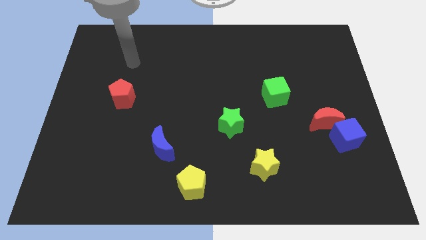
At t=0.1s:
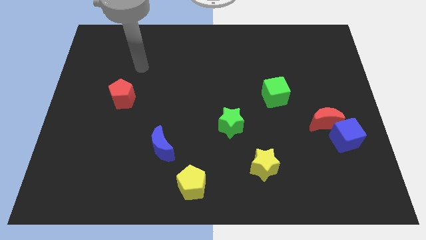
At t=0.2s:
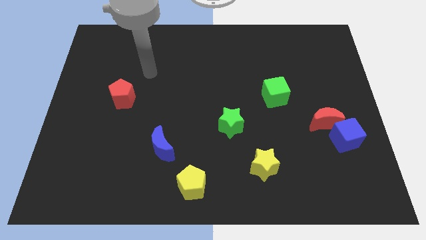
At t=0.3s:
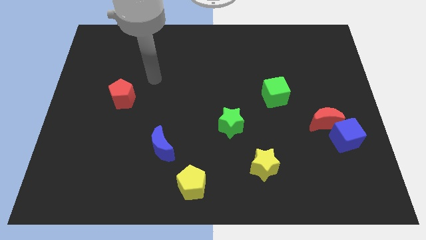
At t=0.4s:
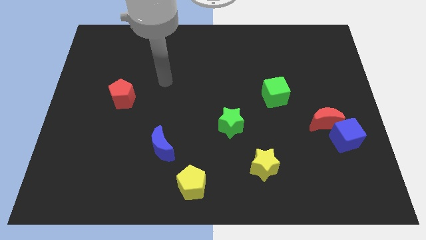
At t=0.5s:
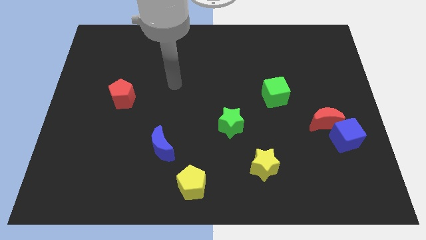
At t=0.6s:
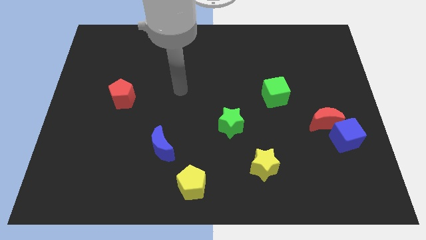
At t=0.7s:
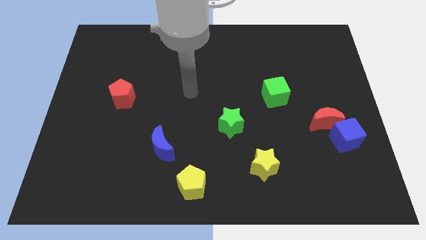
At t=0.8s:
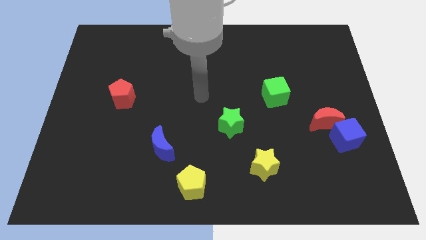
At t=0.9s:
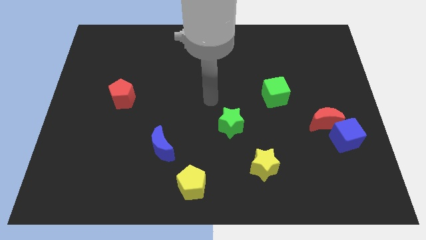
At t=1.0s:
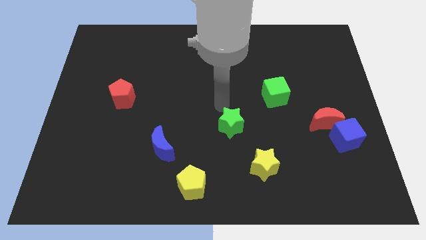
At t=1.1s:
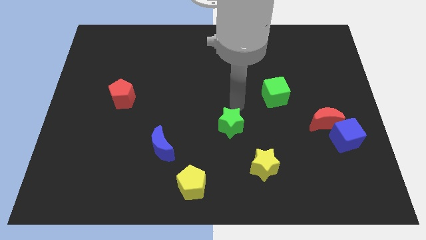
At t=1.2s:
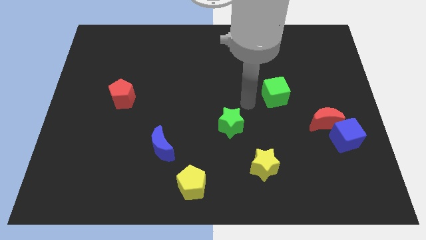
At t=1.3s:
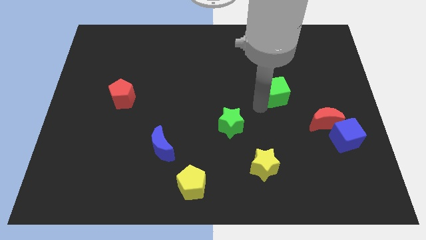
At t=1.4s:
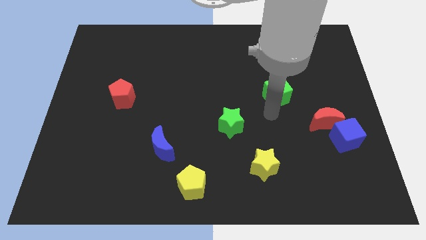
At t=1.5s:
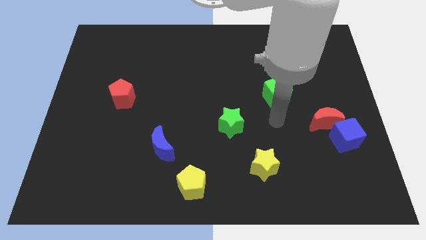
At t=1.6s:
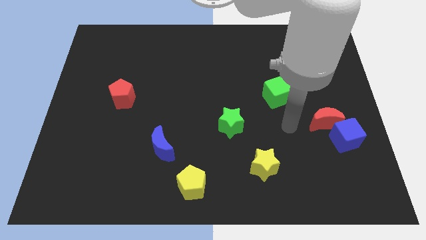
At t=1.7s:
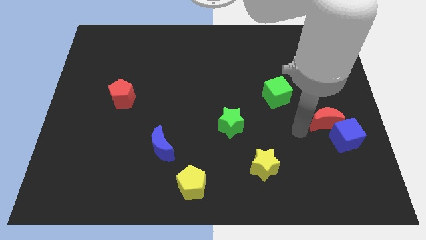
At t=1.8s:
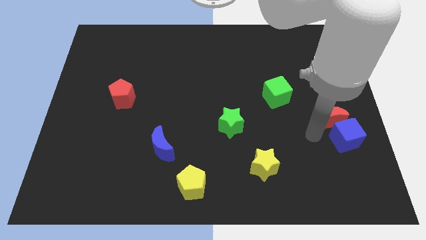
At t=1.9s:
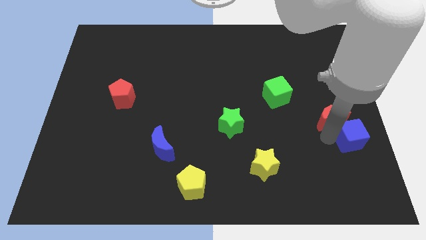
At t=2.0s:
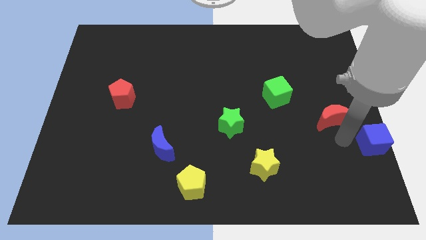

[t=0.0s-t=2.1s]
move the red moon away from the blue cube

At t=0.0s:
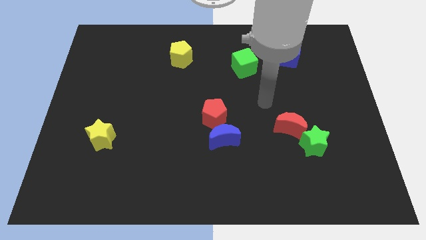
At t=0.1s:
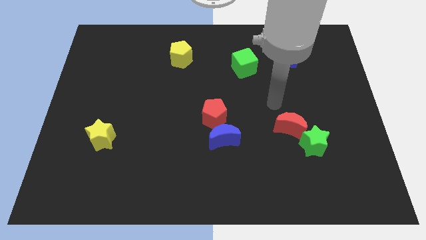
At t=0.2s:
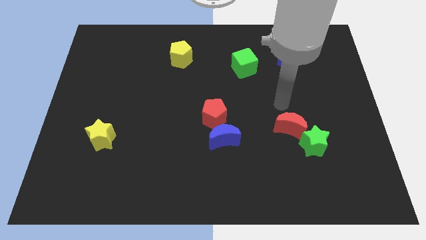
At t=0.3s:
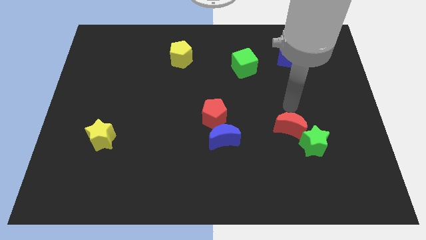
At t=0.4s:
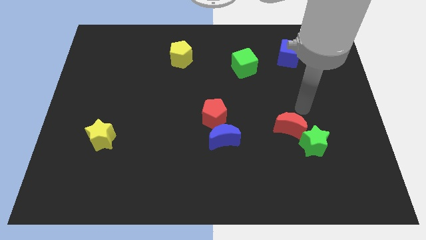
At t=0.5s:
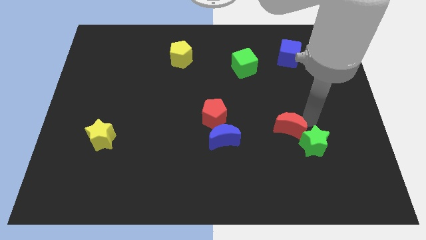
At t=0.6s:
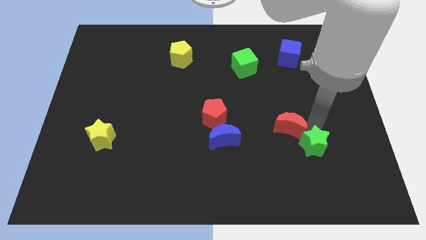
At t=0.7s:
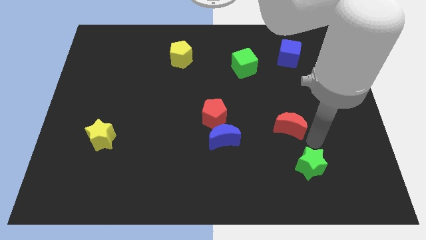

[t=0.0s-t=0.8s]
move the red moon away from the green star

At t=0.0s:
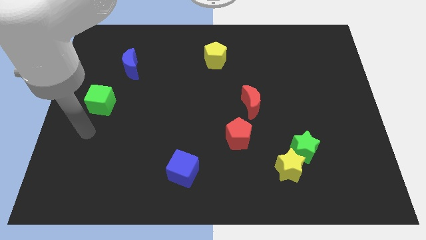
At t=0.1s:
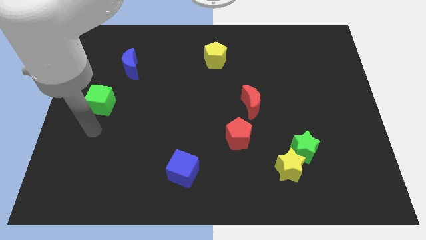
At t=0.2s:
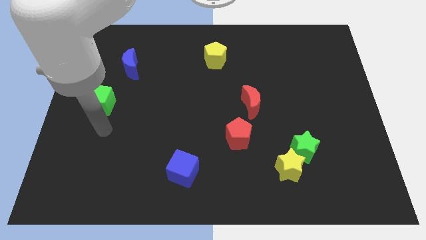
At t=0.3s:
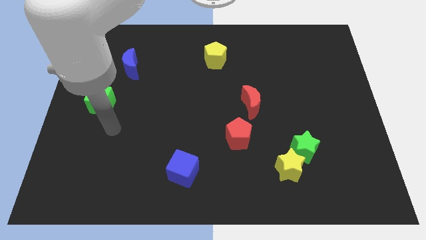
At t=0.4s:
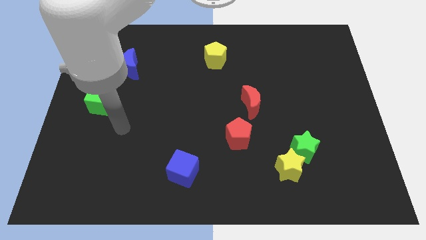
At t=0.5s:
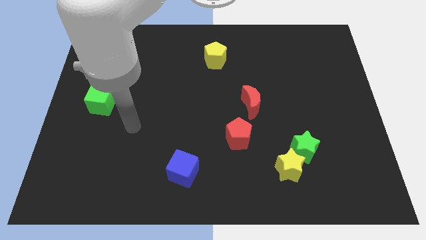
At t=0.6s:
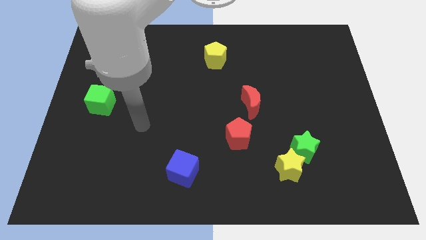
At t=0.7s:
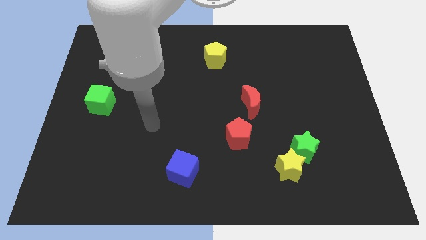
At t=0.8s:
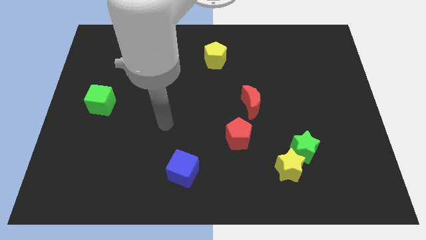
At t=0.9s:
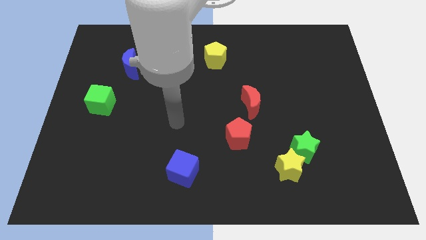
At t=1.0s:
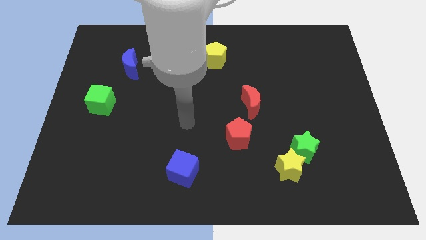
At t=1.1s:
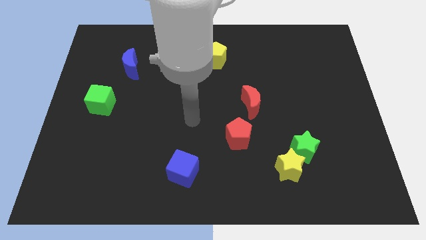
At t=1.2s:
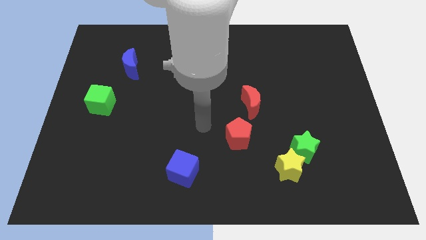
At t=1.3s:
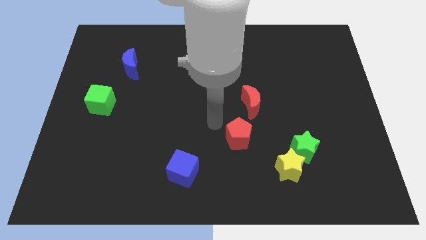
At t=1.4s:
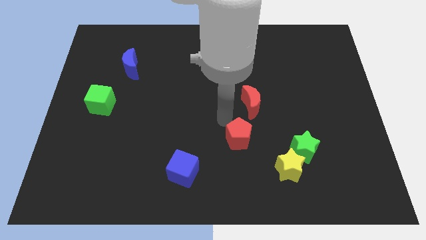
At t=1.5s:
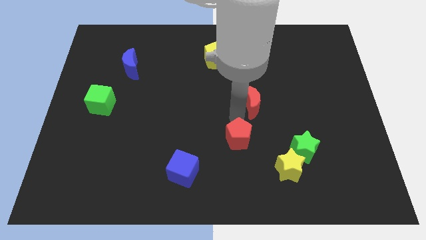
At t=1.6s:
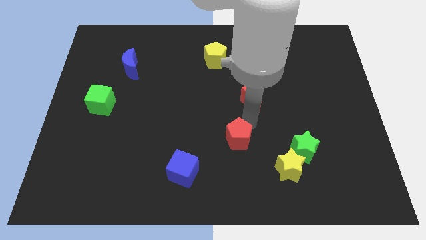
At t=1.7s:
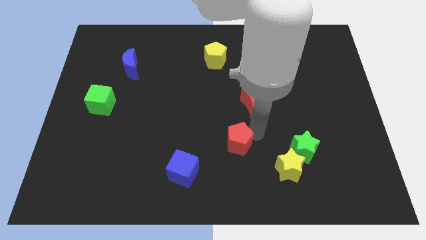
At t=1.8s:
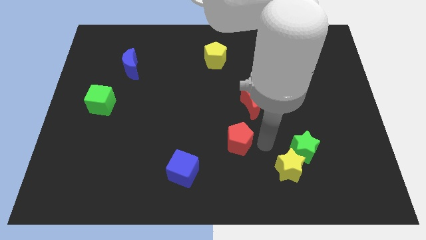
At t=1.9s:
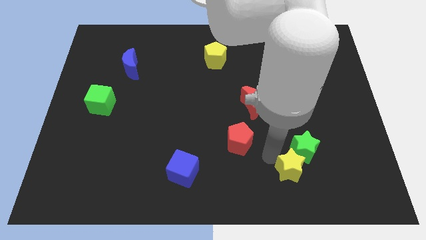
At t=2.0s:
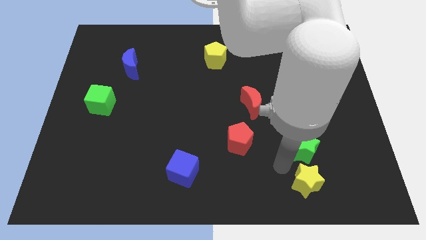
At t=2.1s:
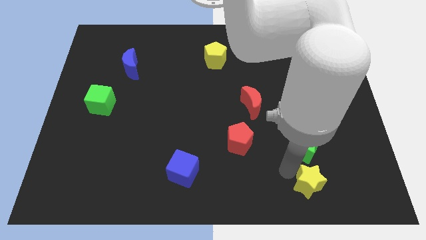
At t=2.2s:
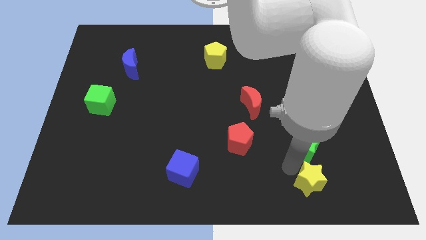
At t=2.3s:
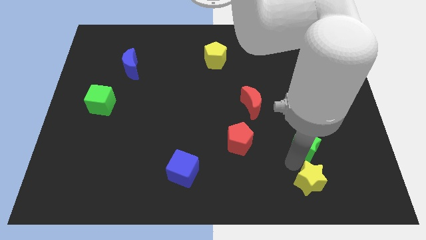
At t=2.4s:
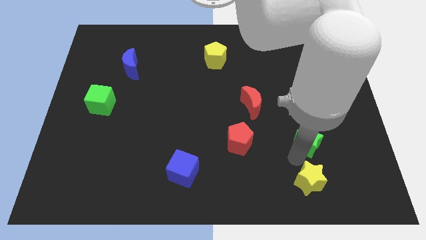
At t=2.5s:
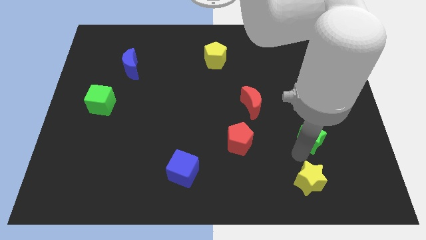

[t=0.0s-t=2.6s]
pull the green star apart from the yellow star

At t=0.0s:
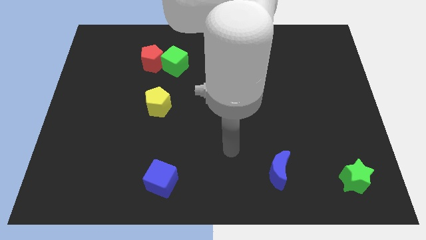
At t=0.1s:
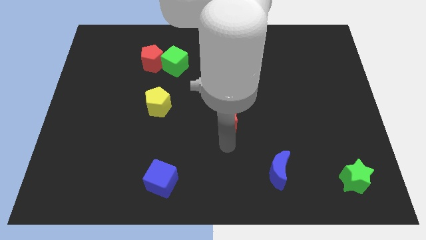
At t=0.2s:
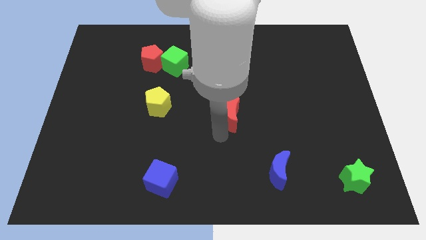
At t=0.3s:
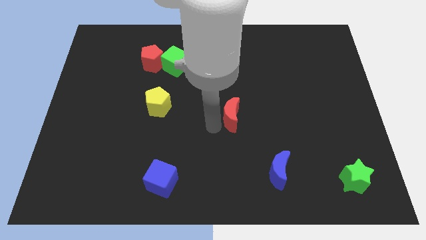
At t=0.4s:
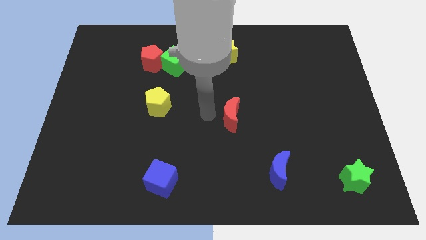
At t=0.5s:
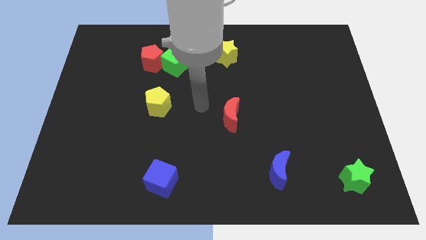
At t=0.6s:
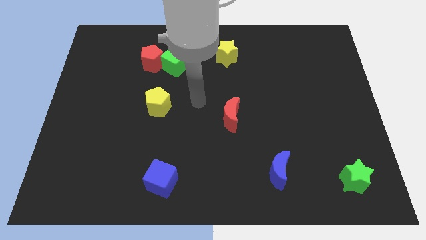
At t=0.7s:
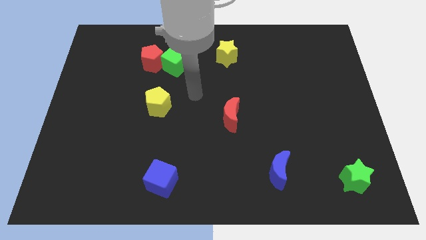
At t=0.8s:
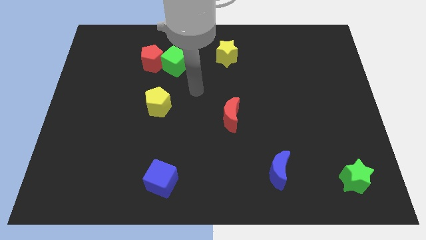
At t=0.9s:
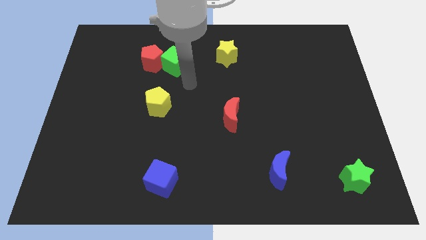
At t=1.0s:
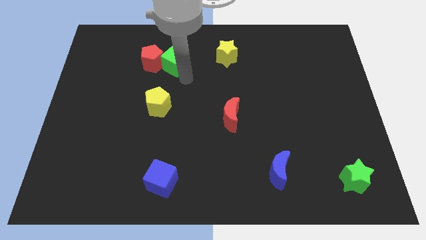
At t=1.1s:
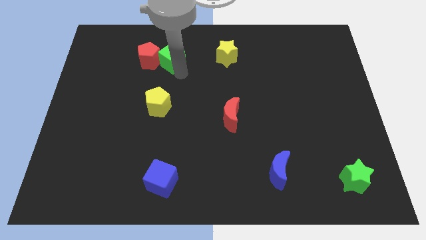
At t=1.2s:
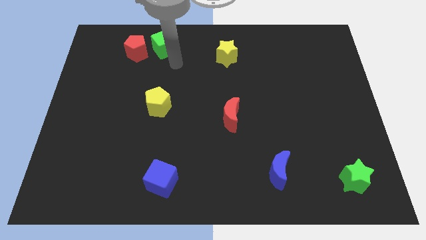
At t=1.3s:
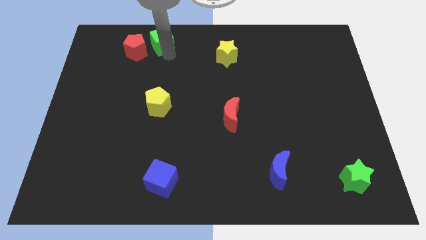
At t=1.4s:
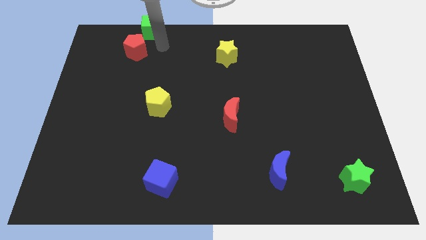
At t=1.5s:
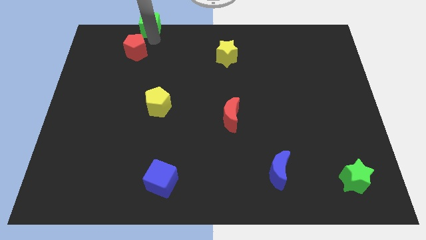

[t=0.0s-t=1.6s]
move the red pentagon away from the green cube

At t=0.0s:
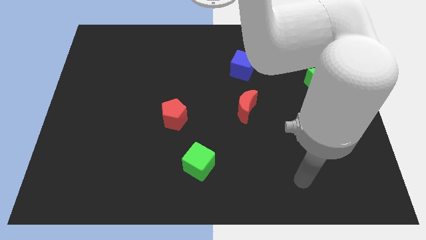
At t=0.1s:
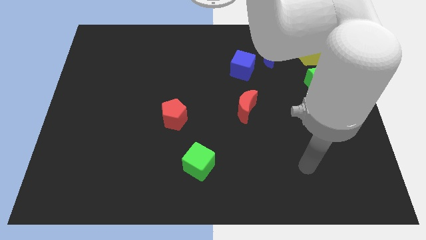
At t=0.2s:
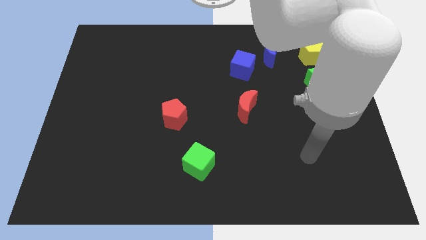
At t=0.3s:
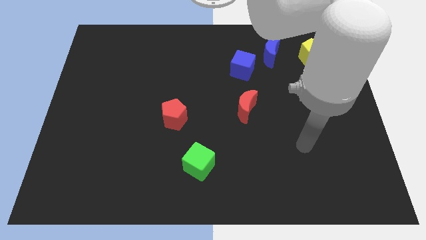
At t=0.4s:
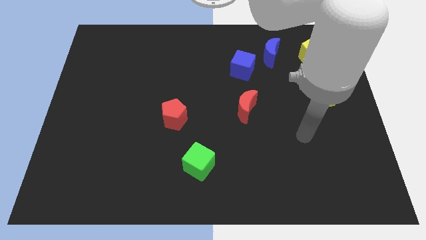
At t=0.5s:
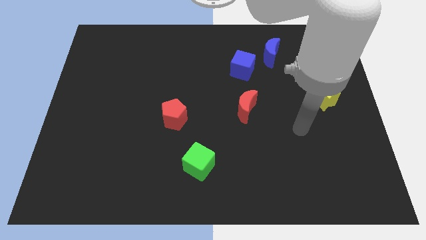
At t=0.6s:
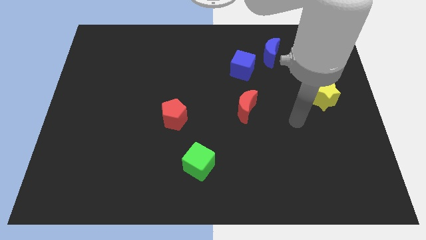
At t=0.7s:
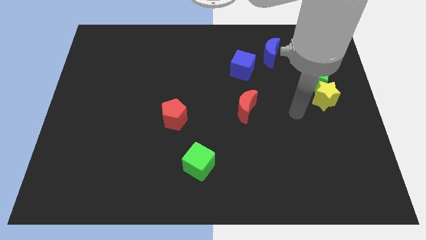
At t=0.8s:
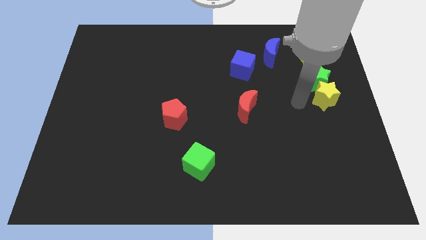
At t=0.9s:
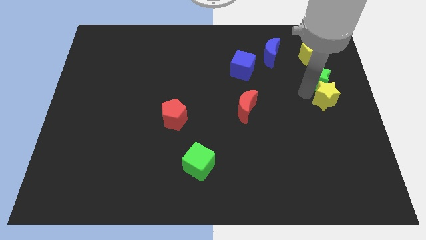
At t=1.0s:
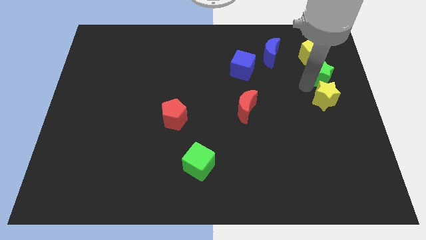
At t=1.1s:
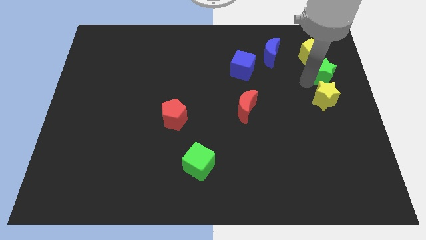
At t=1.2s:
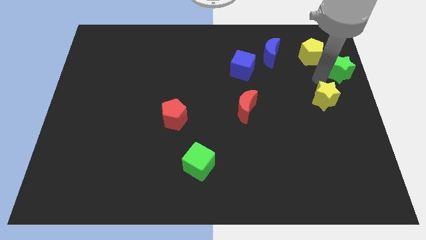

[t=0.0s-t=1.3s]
separate the yellow star from the green star

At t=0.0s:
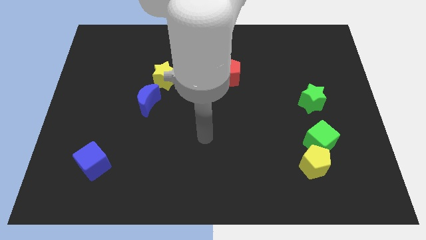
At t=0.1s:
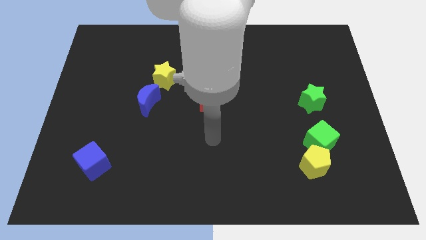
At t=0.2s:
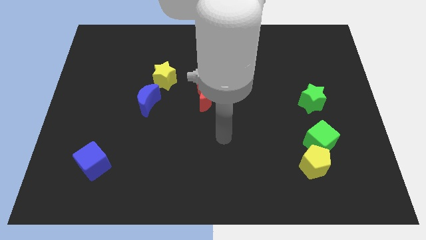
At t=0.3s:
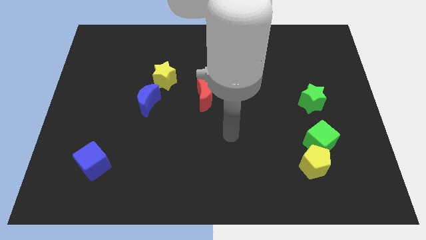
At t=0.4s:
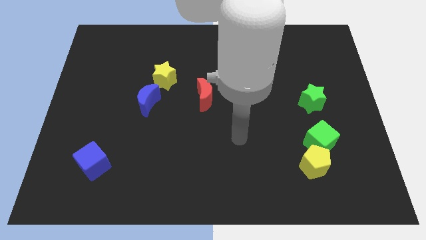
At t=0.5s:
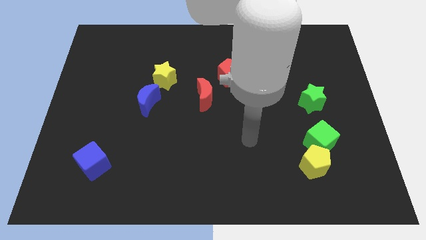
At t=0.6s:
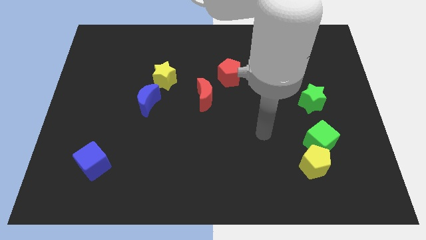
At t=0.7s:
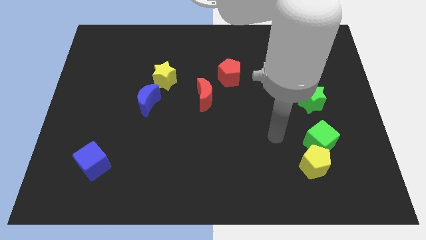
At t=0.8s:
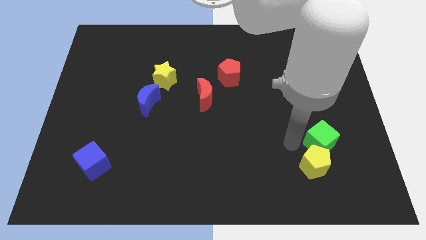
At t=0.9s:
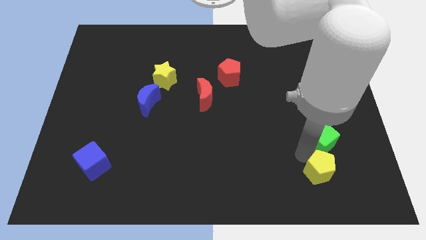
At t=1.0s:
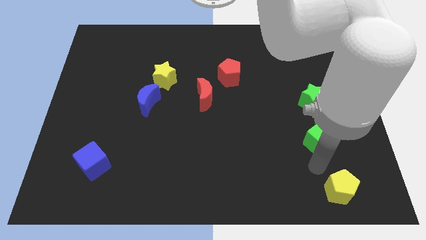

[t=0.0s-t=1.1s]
separate the green cube from the yellow pentagon
